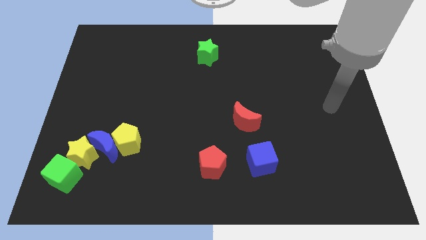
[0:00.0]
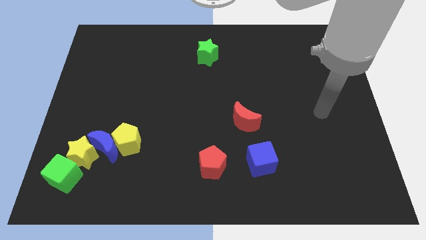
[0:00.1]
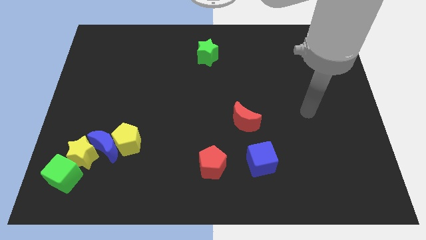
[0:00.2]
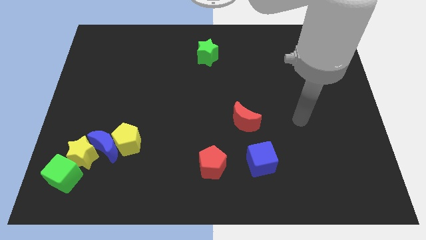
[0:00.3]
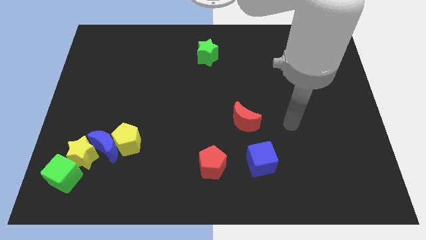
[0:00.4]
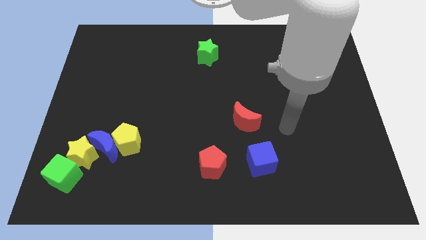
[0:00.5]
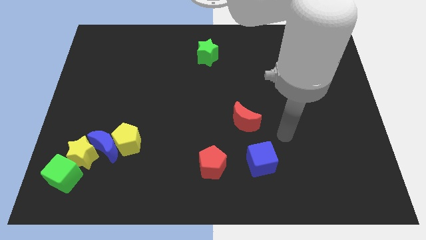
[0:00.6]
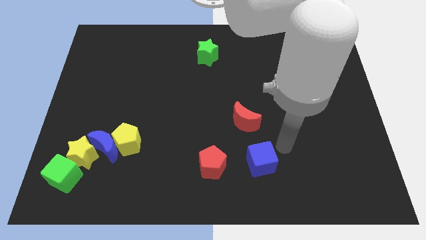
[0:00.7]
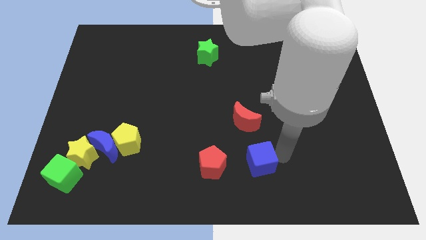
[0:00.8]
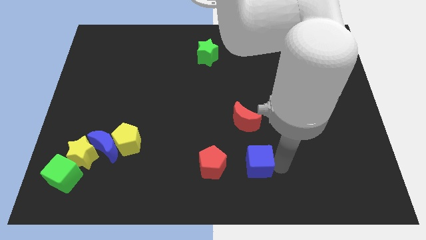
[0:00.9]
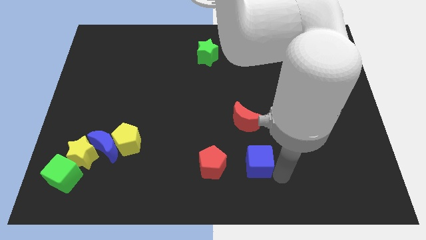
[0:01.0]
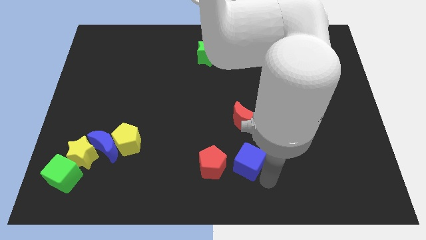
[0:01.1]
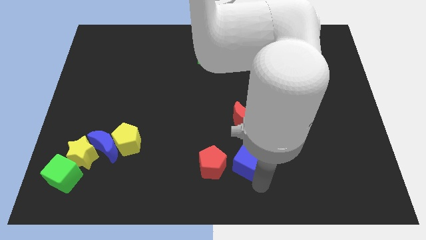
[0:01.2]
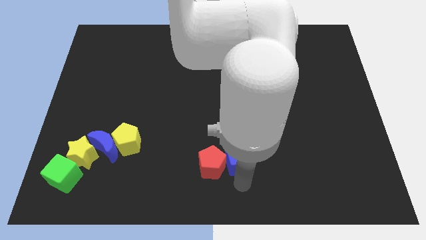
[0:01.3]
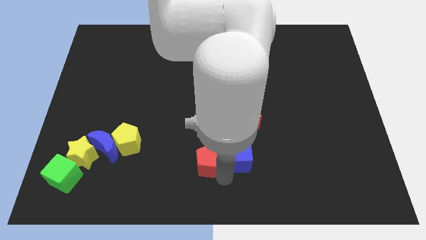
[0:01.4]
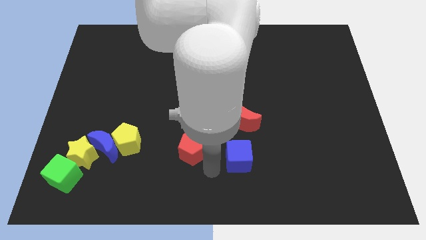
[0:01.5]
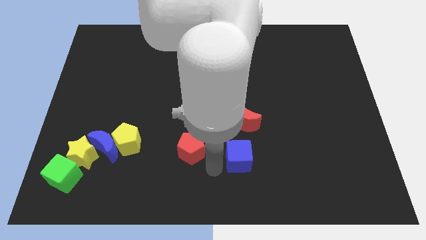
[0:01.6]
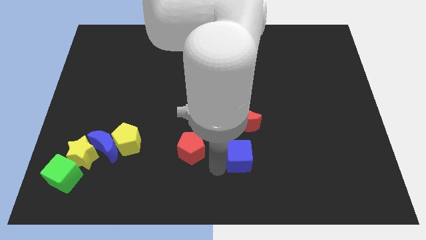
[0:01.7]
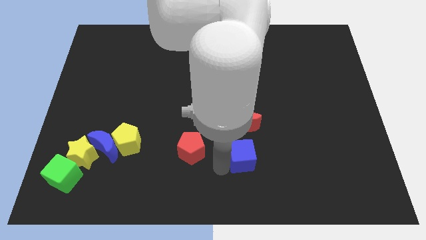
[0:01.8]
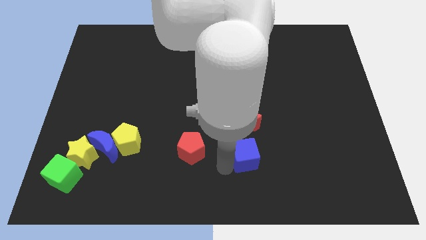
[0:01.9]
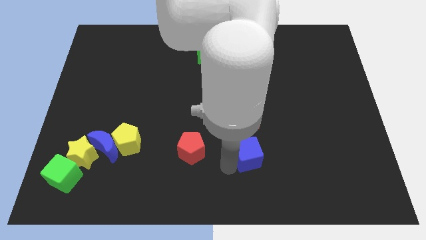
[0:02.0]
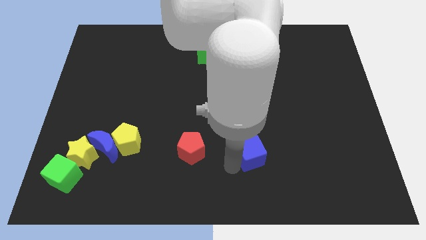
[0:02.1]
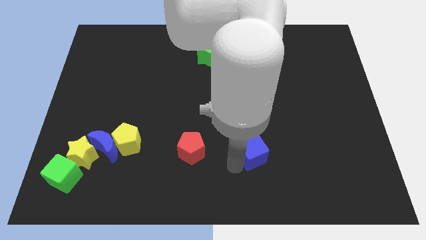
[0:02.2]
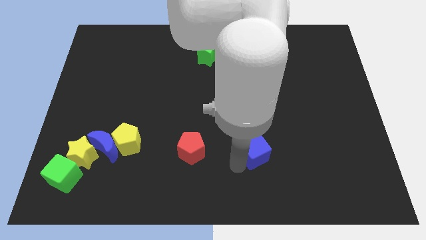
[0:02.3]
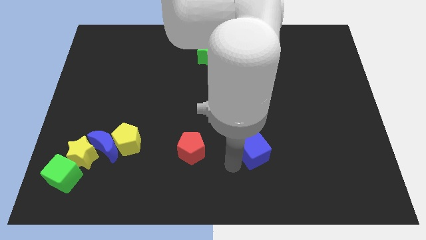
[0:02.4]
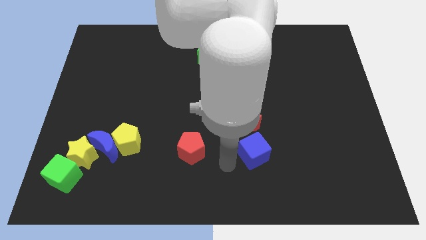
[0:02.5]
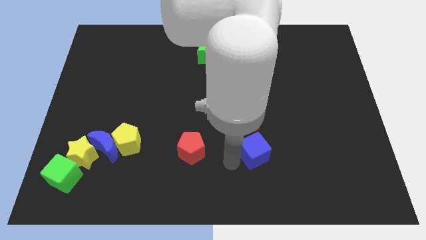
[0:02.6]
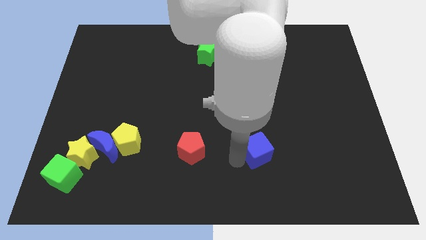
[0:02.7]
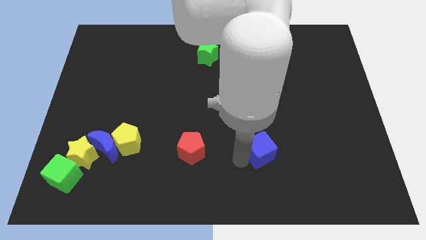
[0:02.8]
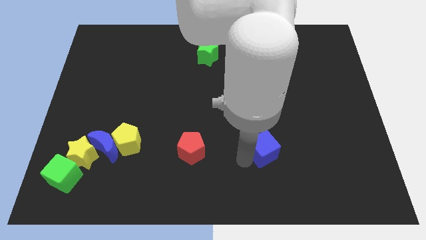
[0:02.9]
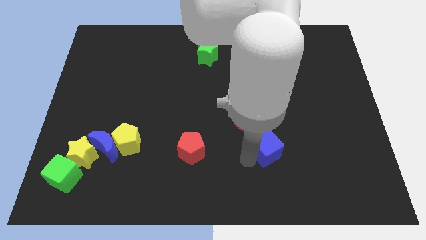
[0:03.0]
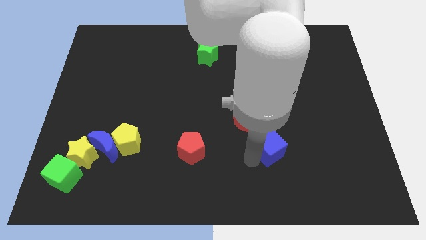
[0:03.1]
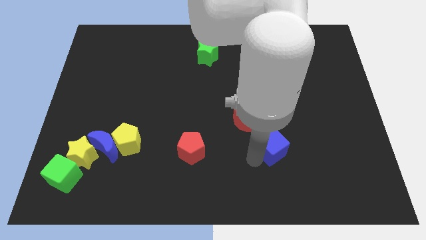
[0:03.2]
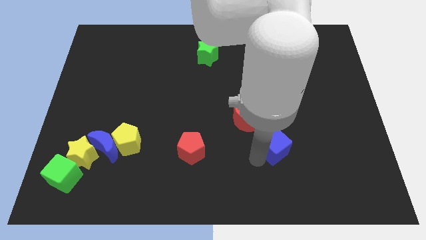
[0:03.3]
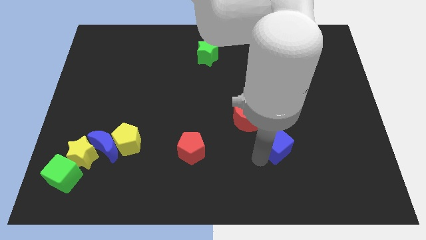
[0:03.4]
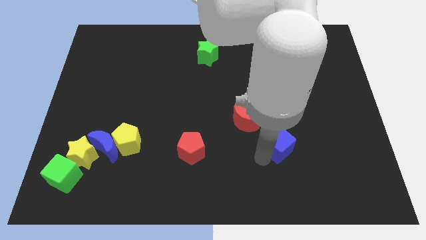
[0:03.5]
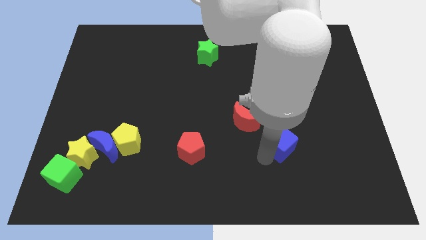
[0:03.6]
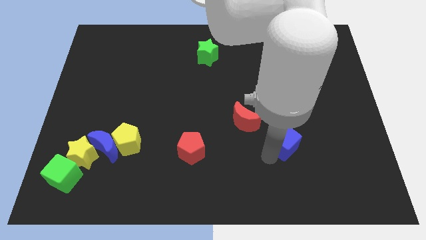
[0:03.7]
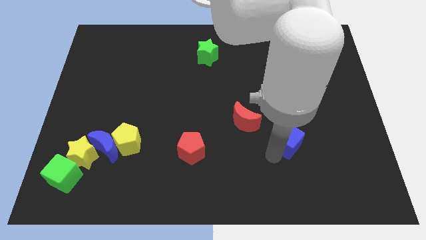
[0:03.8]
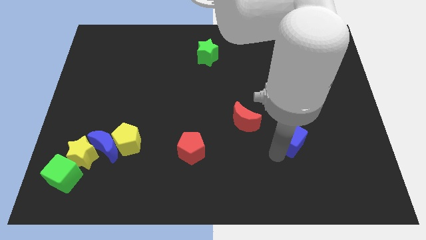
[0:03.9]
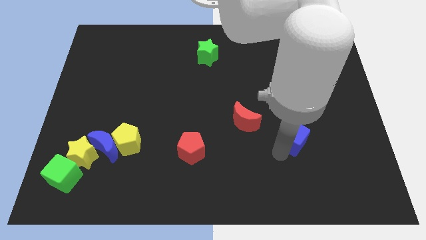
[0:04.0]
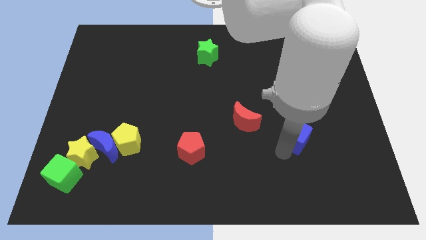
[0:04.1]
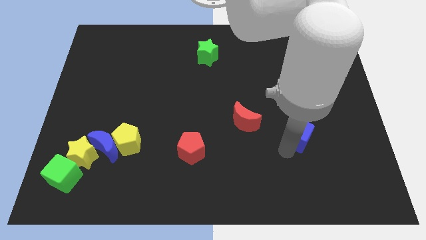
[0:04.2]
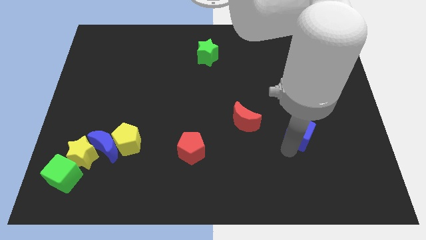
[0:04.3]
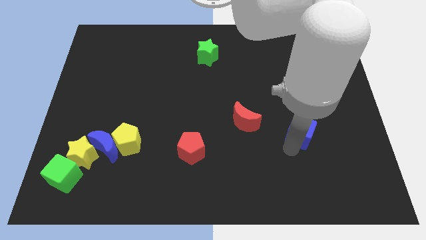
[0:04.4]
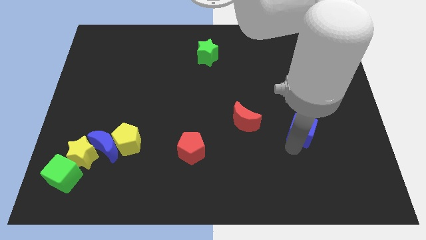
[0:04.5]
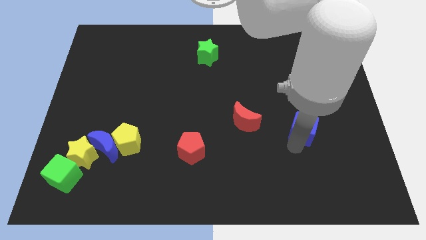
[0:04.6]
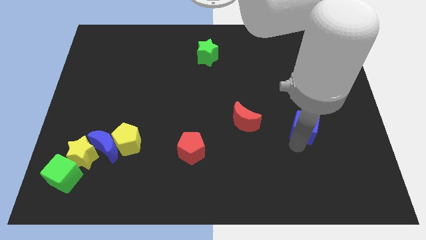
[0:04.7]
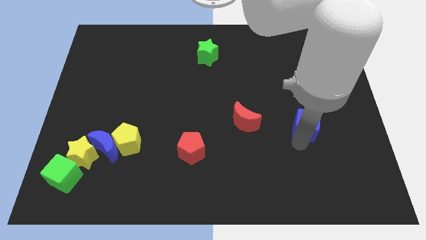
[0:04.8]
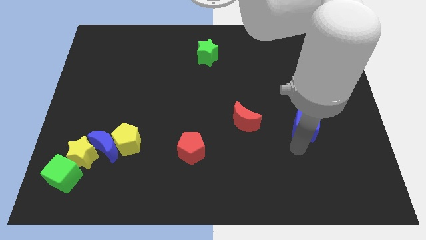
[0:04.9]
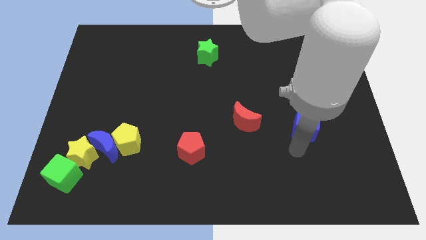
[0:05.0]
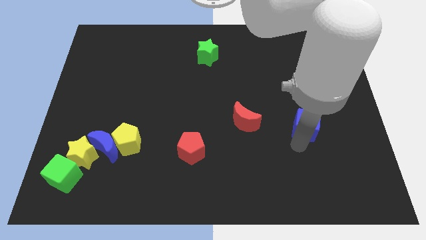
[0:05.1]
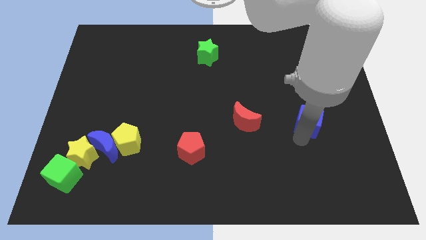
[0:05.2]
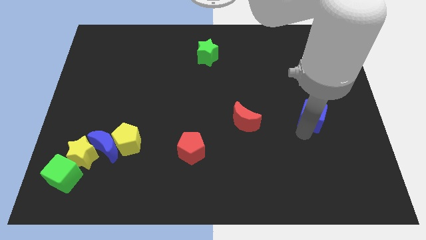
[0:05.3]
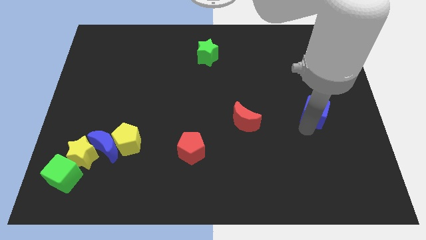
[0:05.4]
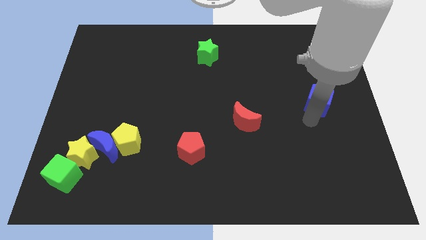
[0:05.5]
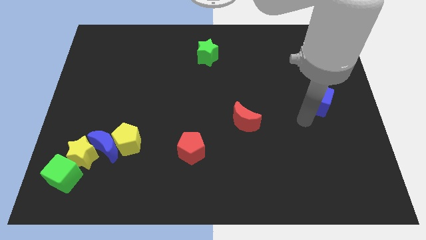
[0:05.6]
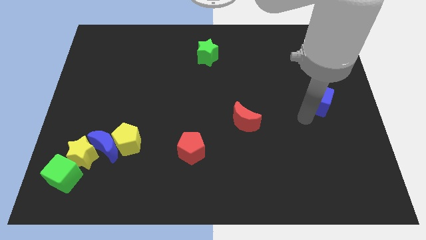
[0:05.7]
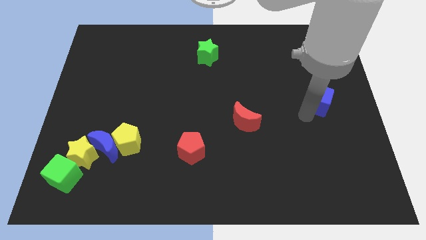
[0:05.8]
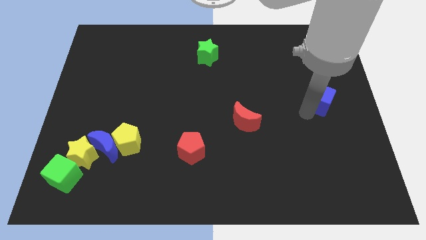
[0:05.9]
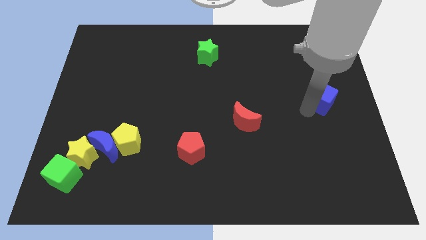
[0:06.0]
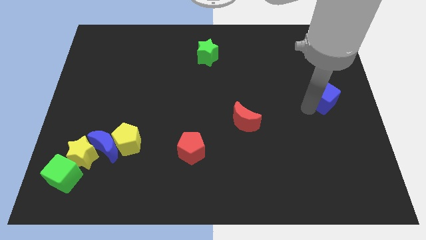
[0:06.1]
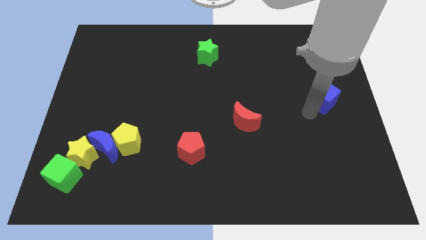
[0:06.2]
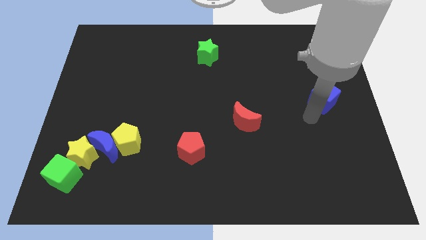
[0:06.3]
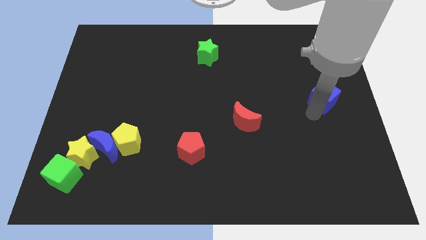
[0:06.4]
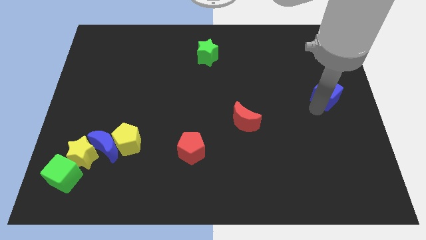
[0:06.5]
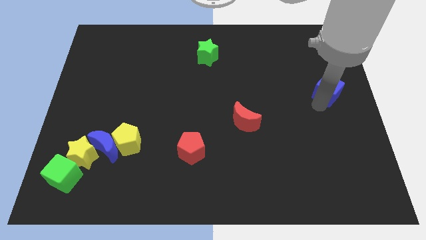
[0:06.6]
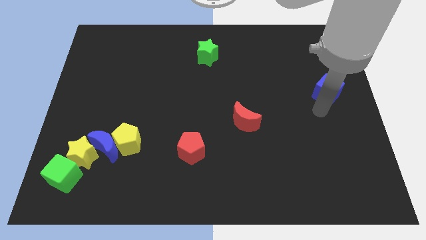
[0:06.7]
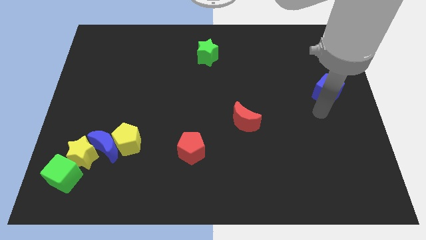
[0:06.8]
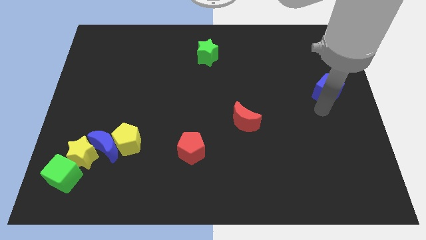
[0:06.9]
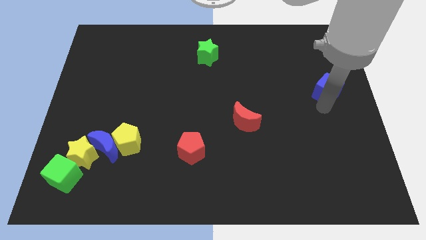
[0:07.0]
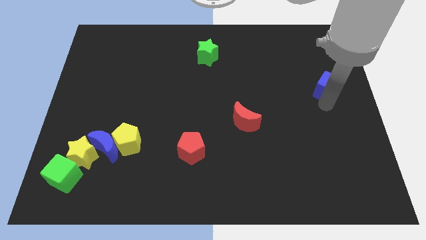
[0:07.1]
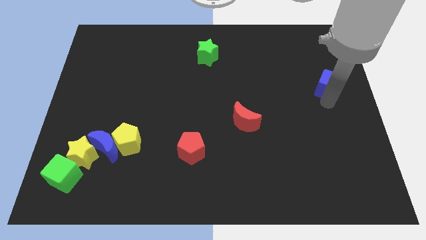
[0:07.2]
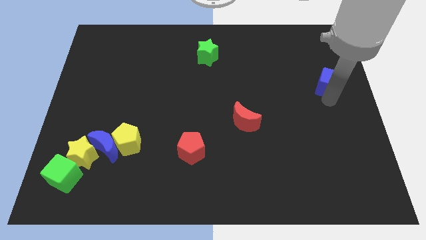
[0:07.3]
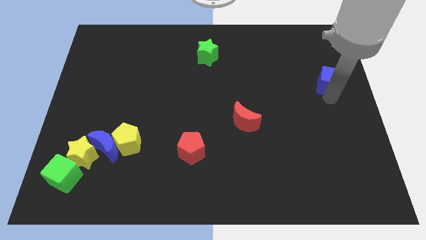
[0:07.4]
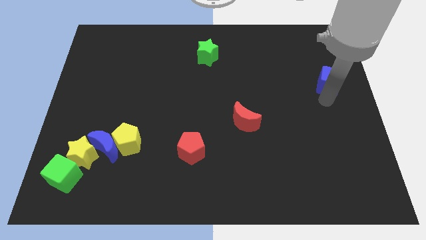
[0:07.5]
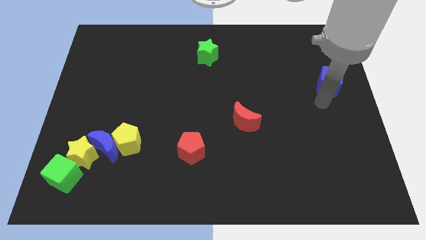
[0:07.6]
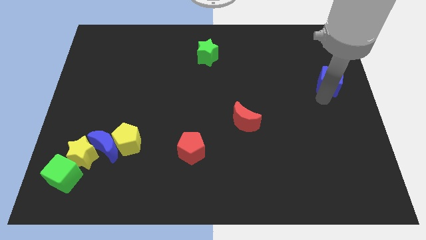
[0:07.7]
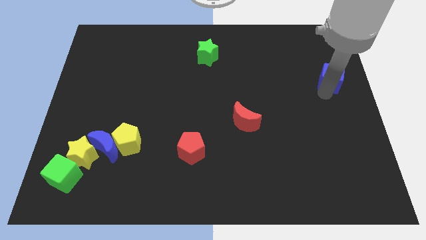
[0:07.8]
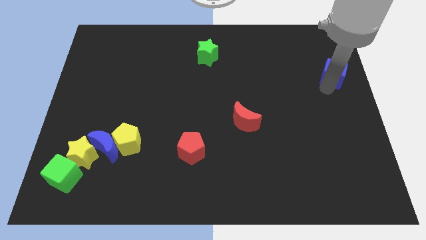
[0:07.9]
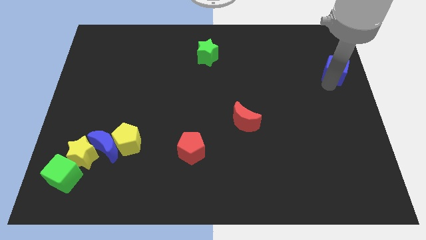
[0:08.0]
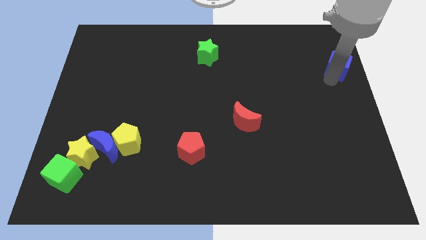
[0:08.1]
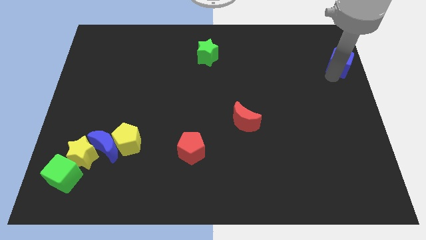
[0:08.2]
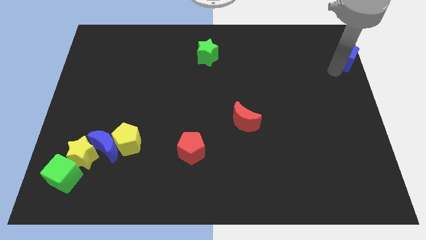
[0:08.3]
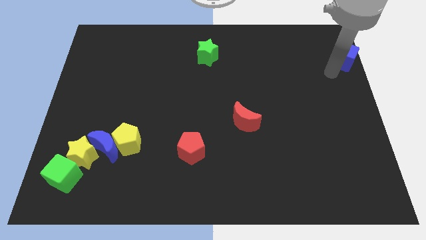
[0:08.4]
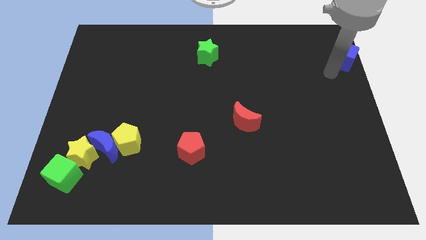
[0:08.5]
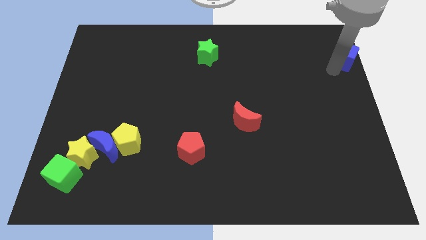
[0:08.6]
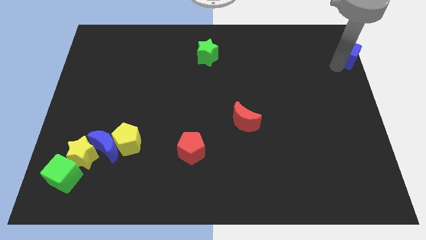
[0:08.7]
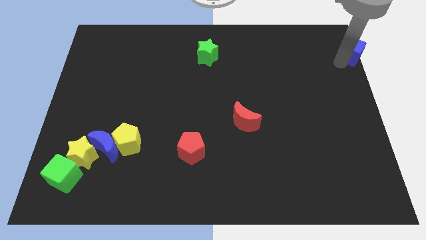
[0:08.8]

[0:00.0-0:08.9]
put the blue cube to the upper right corner
